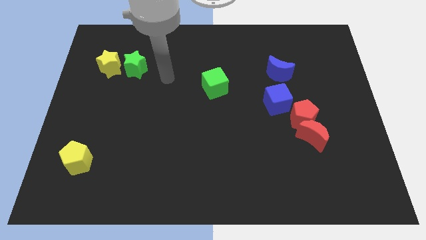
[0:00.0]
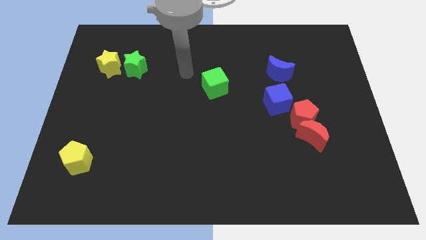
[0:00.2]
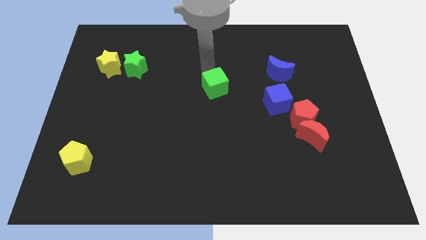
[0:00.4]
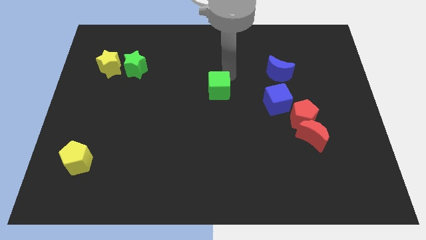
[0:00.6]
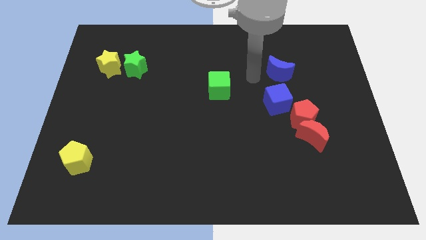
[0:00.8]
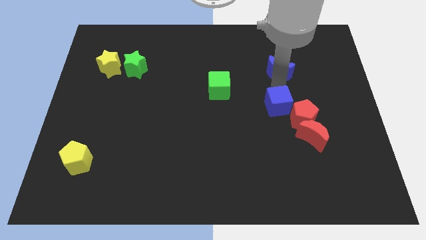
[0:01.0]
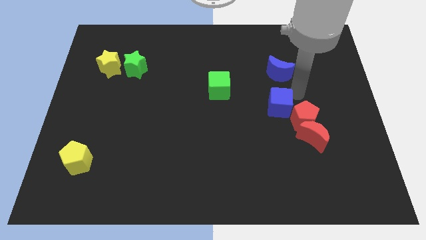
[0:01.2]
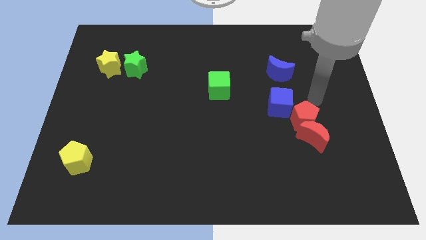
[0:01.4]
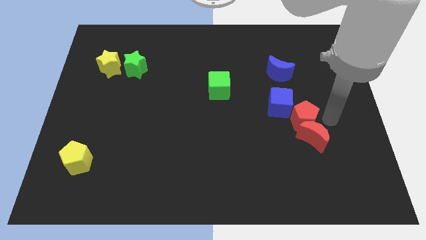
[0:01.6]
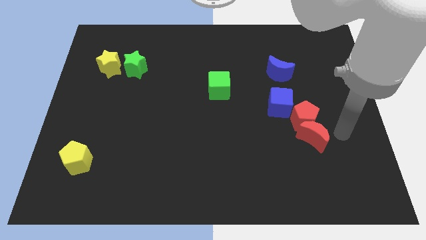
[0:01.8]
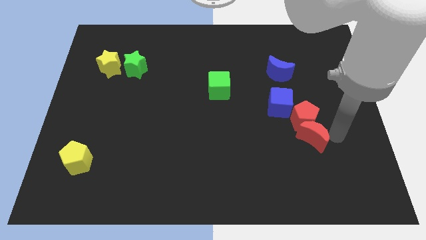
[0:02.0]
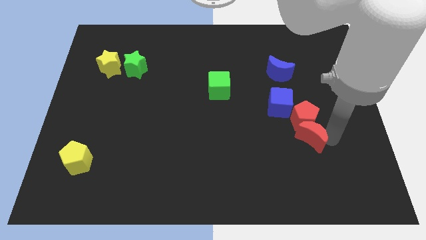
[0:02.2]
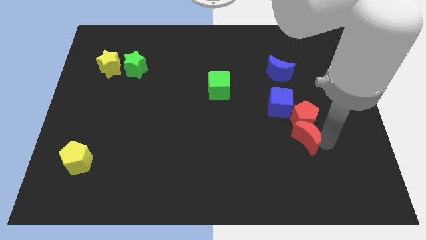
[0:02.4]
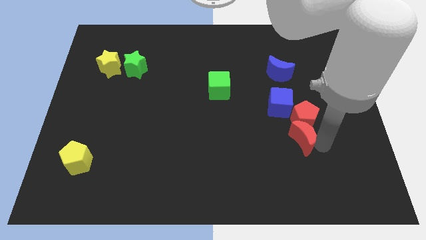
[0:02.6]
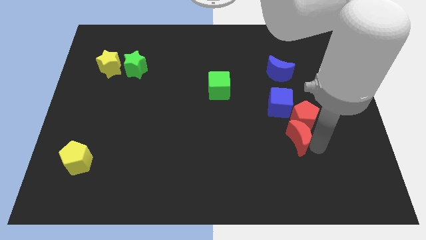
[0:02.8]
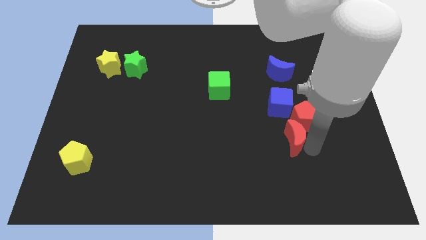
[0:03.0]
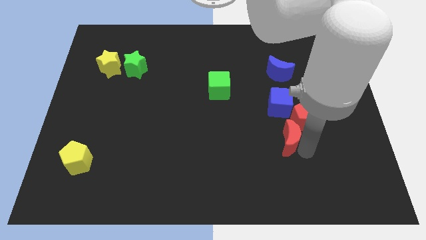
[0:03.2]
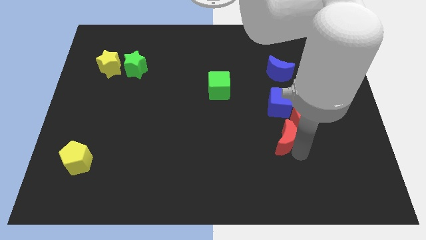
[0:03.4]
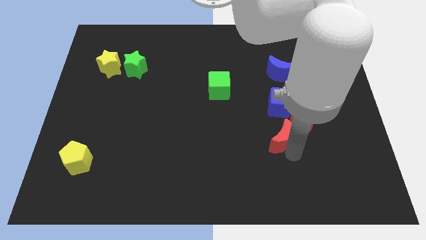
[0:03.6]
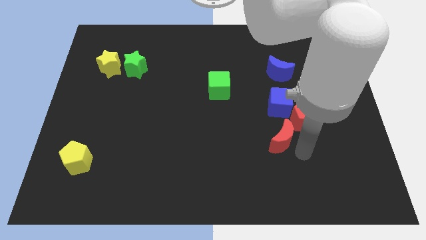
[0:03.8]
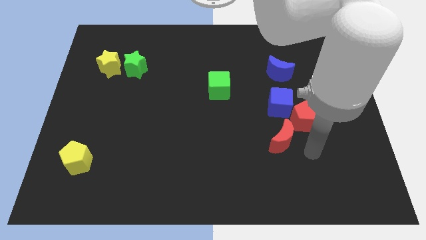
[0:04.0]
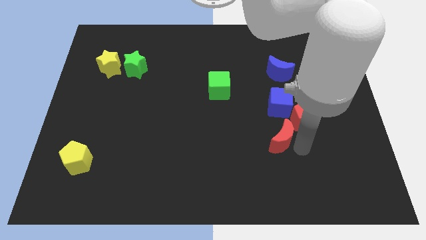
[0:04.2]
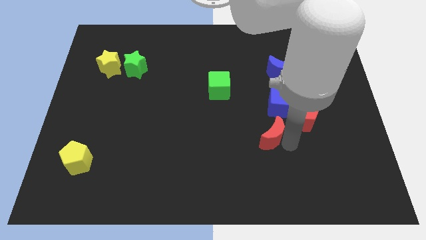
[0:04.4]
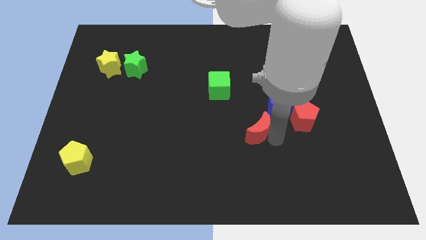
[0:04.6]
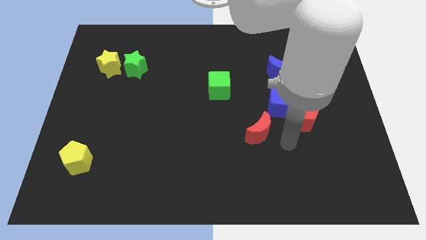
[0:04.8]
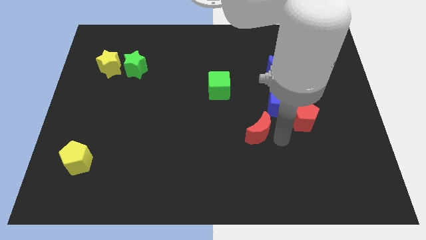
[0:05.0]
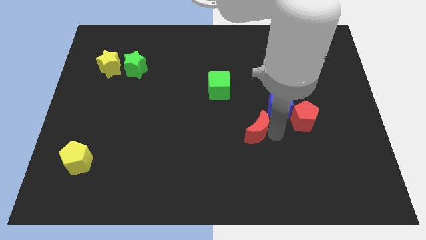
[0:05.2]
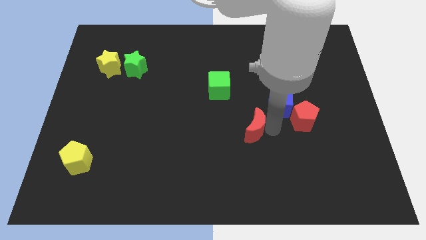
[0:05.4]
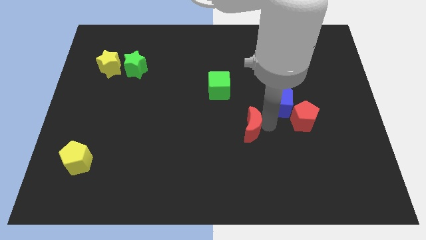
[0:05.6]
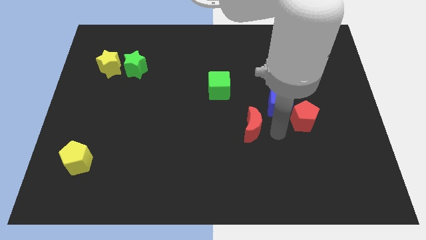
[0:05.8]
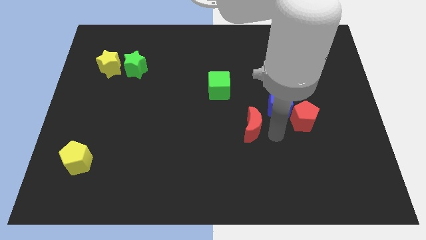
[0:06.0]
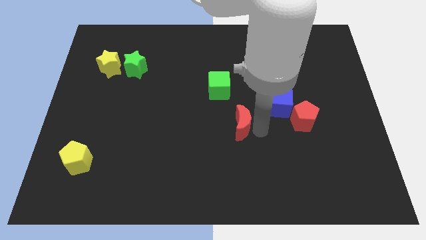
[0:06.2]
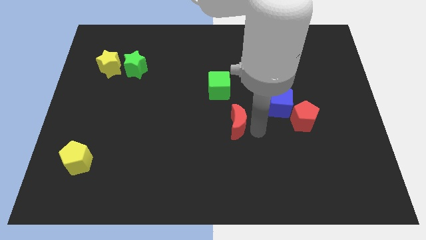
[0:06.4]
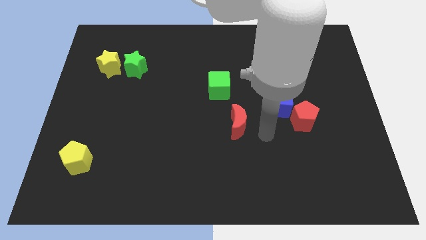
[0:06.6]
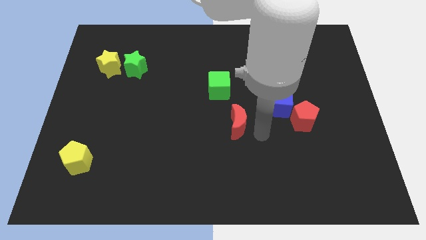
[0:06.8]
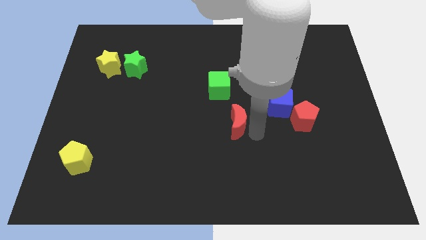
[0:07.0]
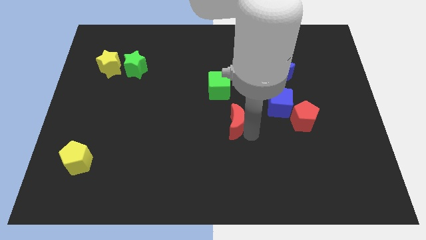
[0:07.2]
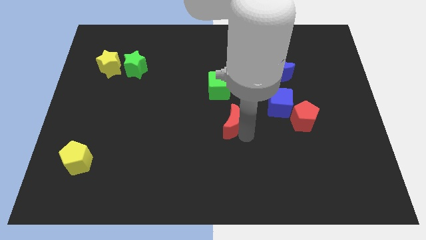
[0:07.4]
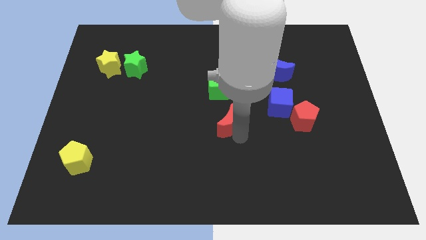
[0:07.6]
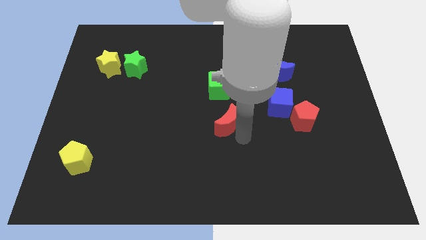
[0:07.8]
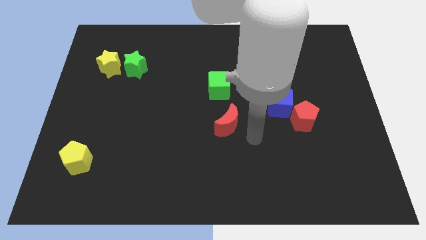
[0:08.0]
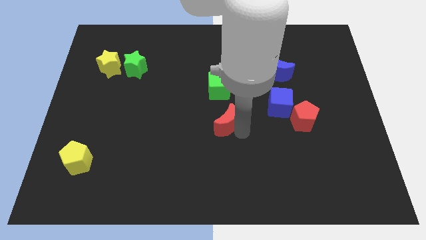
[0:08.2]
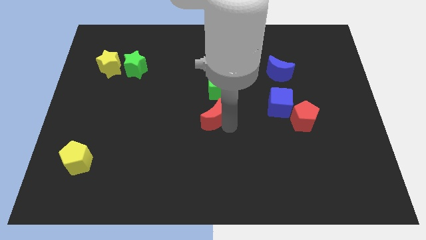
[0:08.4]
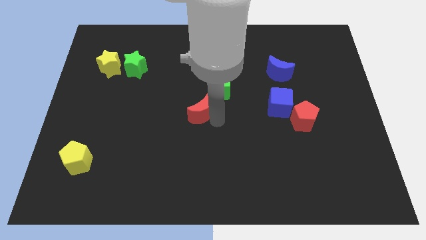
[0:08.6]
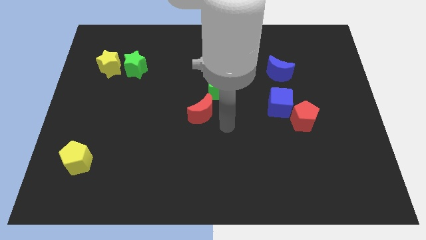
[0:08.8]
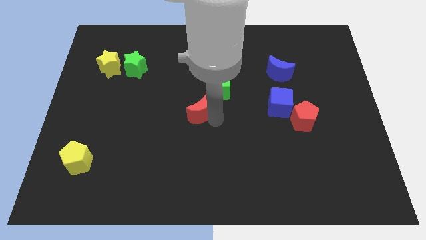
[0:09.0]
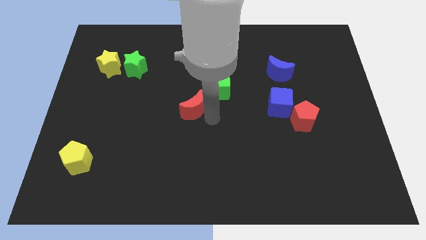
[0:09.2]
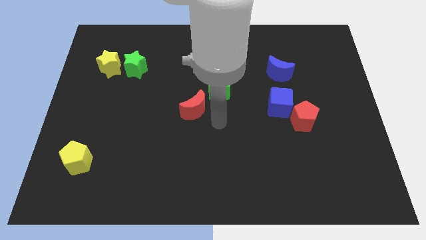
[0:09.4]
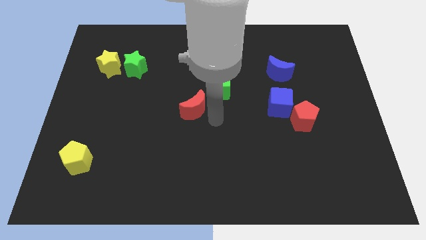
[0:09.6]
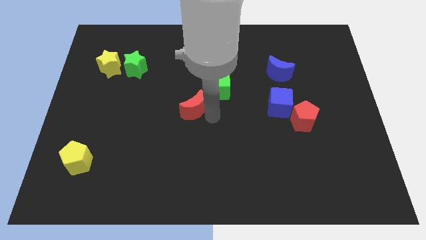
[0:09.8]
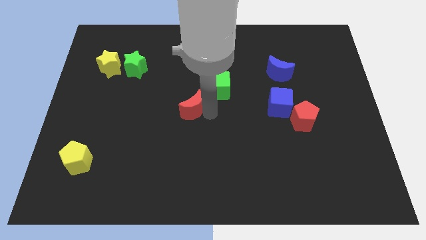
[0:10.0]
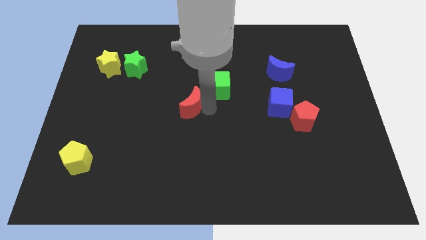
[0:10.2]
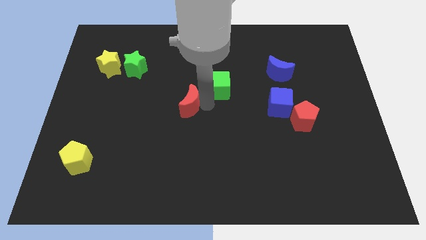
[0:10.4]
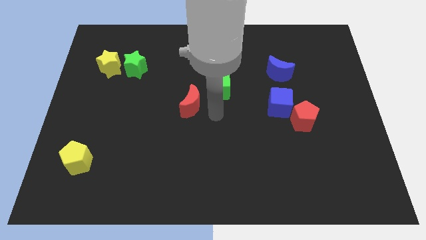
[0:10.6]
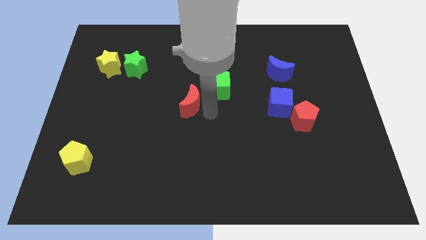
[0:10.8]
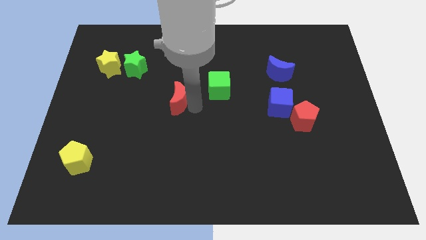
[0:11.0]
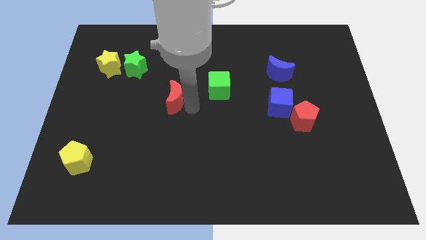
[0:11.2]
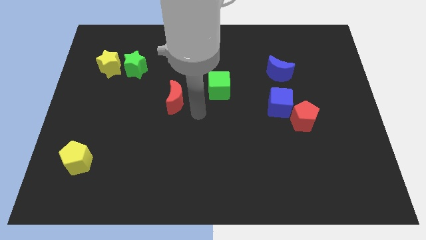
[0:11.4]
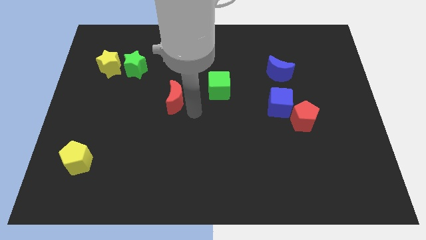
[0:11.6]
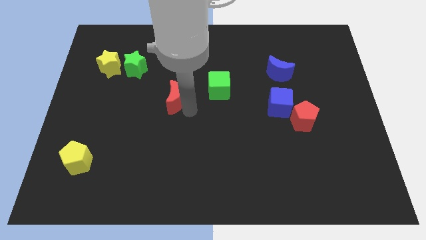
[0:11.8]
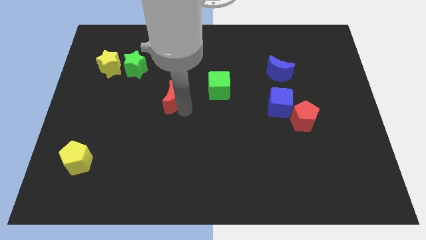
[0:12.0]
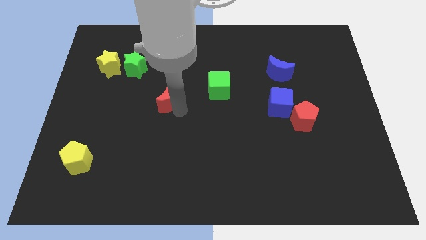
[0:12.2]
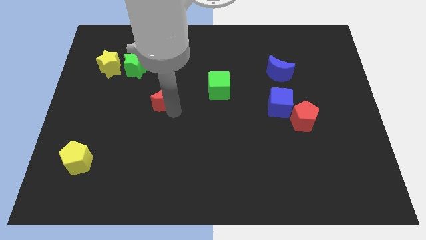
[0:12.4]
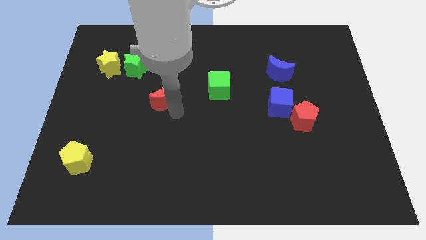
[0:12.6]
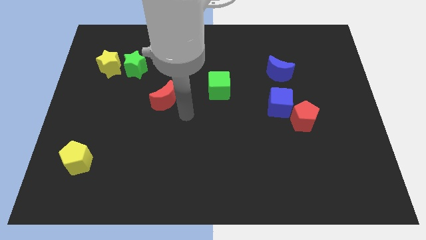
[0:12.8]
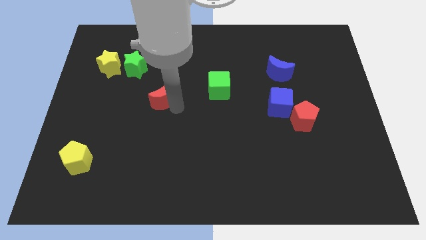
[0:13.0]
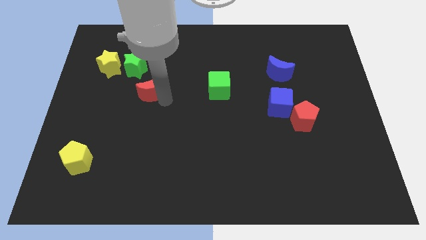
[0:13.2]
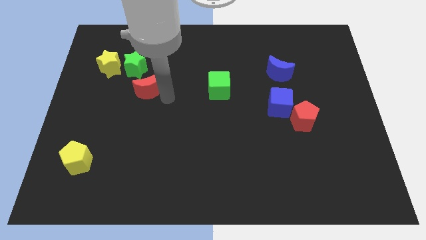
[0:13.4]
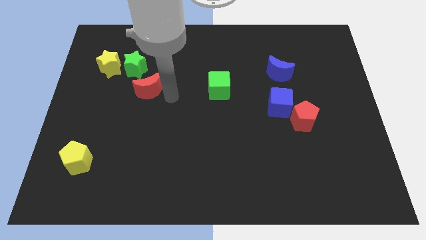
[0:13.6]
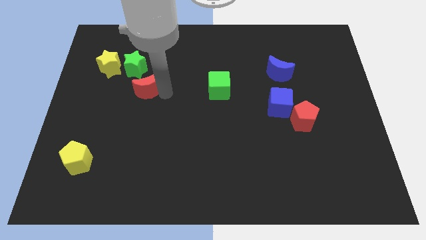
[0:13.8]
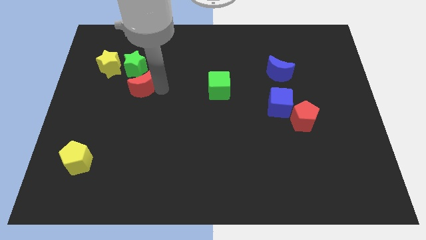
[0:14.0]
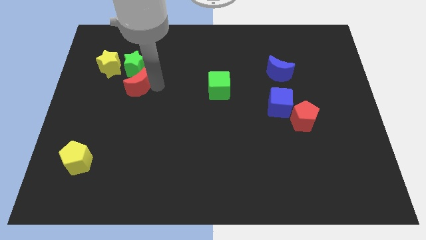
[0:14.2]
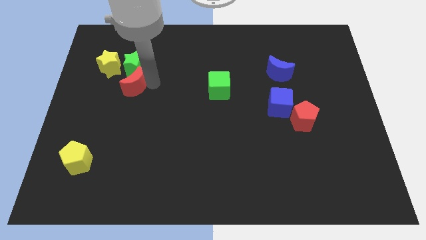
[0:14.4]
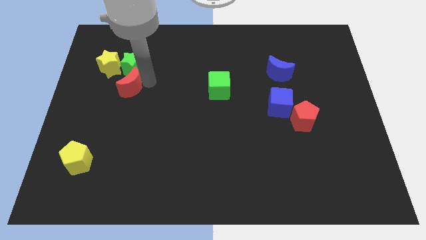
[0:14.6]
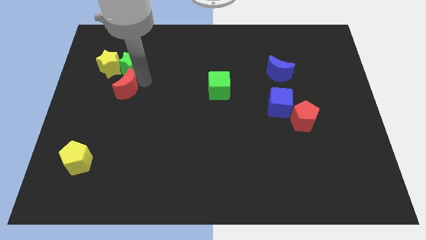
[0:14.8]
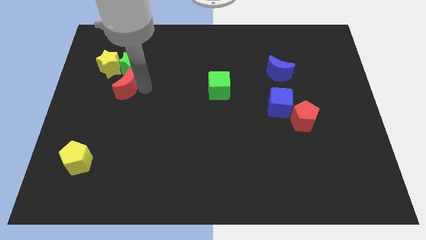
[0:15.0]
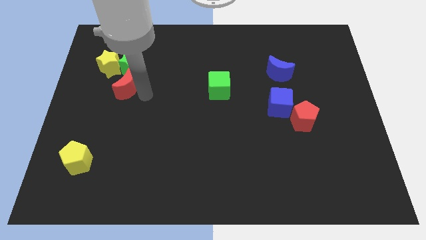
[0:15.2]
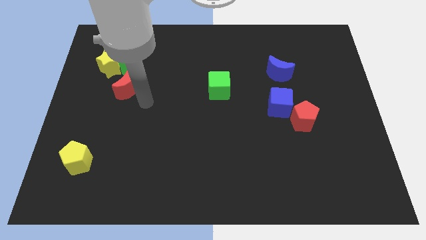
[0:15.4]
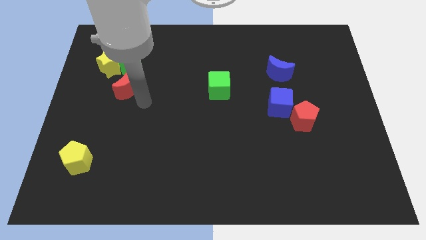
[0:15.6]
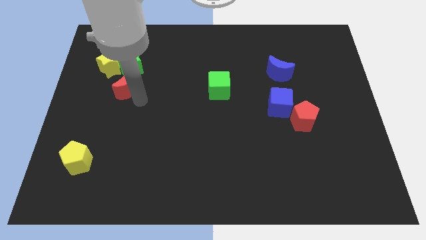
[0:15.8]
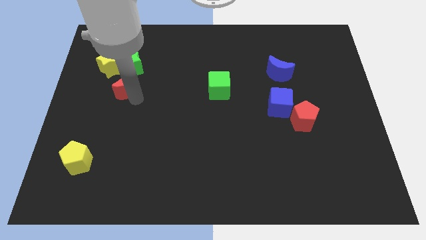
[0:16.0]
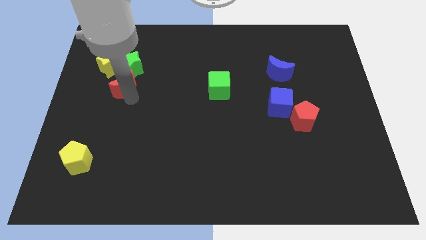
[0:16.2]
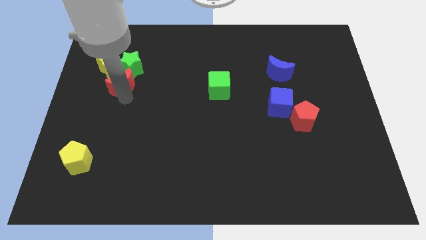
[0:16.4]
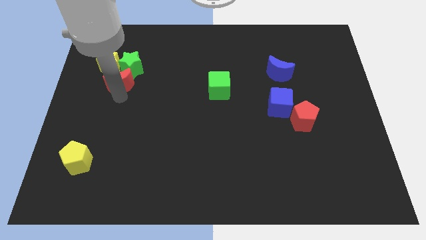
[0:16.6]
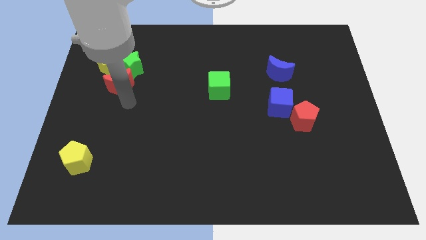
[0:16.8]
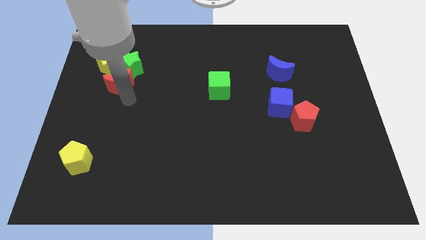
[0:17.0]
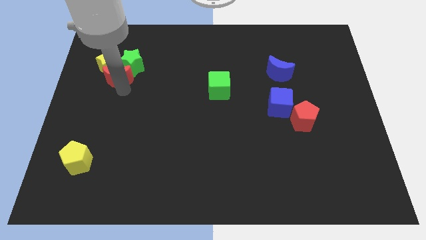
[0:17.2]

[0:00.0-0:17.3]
slide the red moon close to the yellow star
